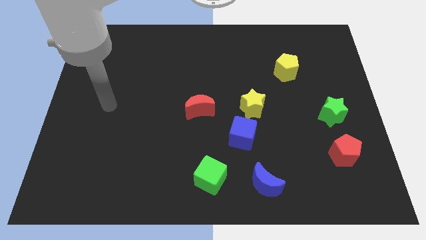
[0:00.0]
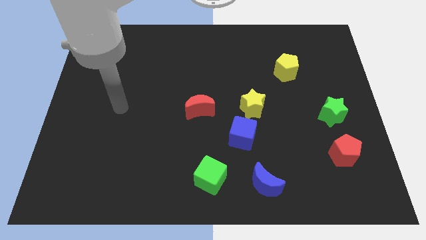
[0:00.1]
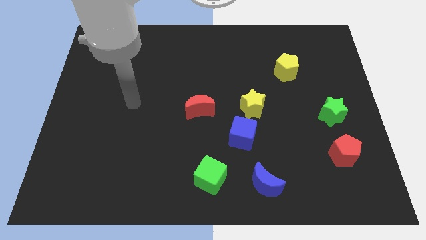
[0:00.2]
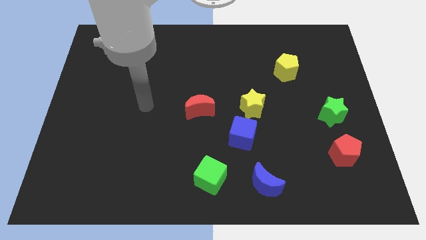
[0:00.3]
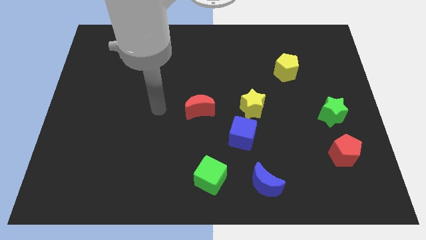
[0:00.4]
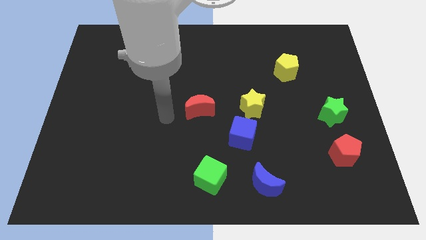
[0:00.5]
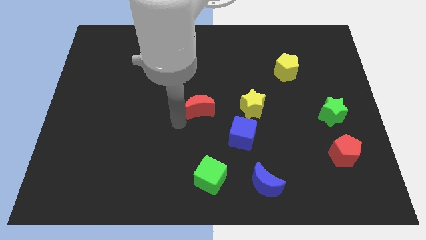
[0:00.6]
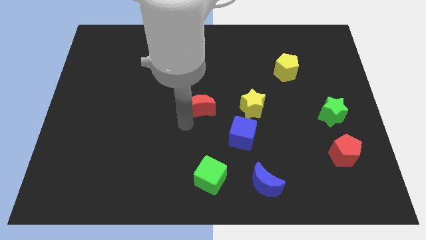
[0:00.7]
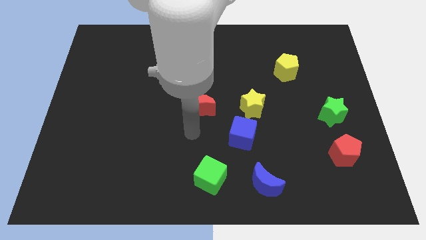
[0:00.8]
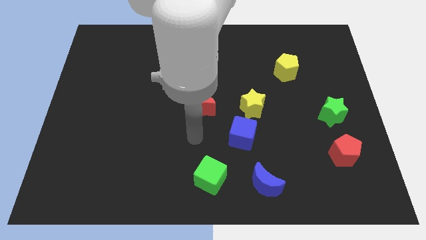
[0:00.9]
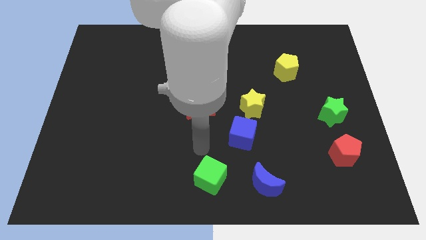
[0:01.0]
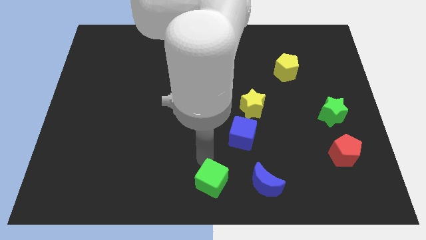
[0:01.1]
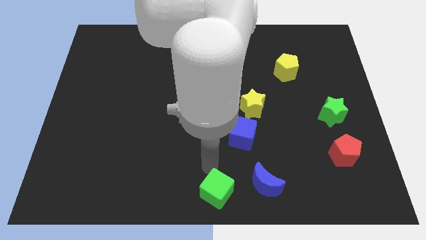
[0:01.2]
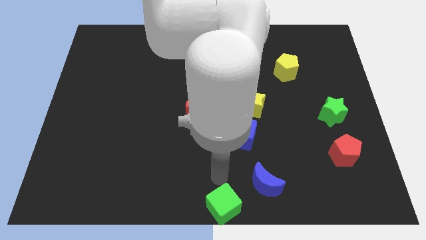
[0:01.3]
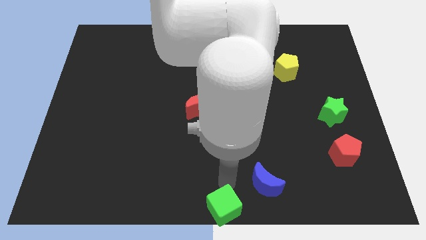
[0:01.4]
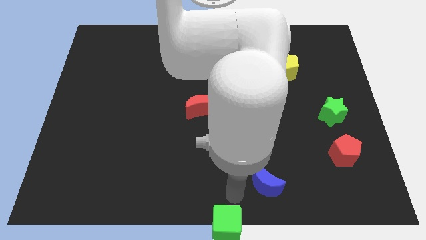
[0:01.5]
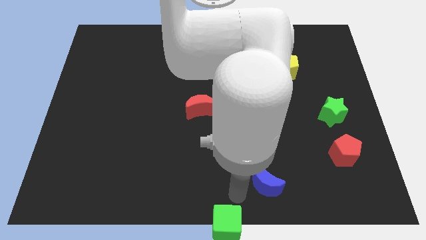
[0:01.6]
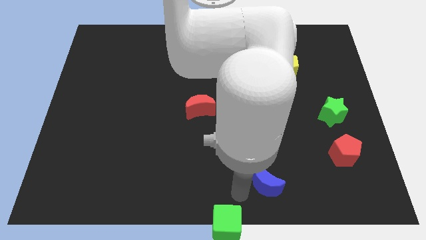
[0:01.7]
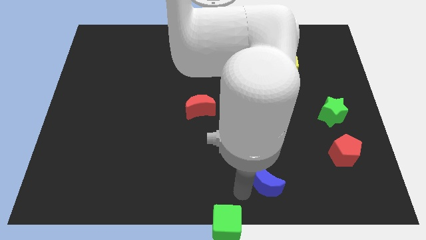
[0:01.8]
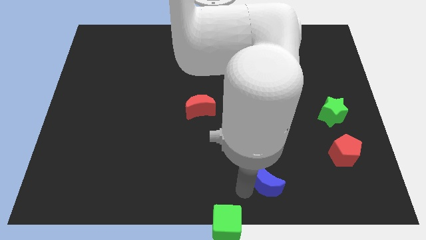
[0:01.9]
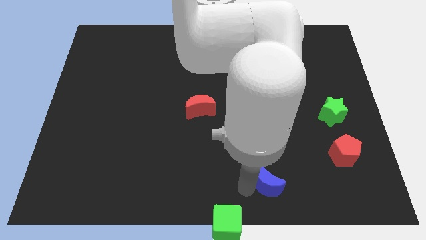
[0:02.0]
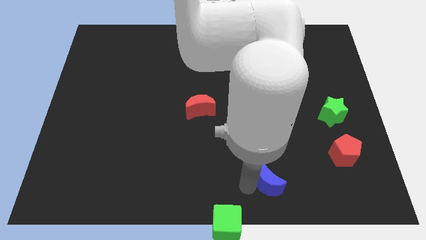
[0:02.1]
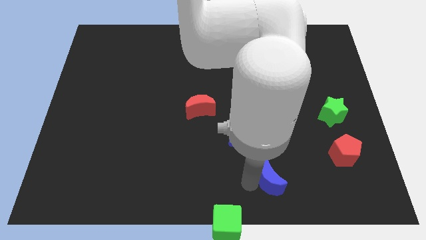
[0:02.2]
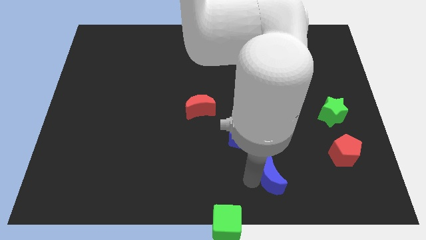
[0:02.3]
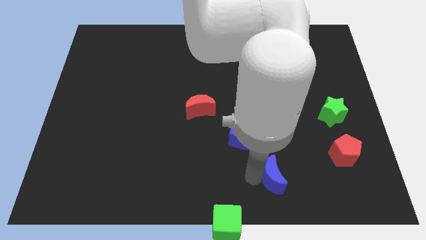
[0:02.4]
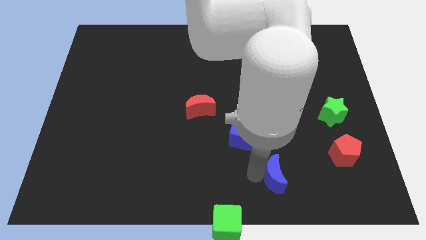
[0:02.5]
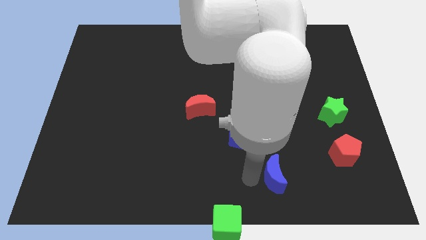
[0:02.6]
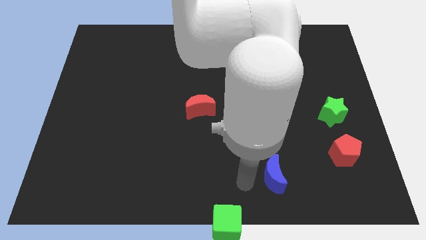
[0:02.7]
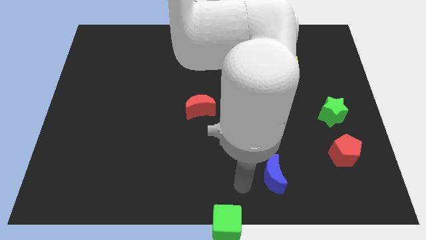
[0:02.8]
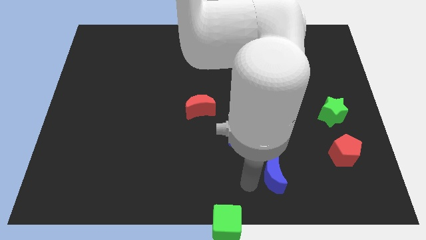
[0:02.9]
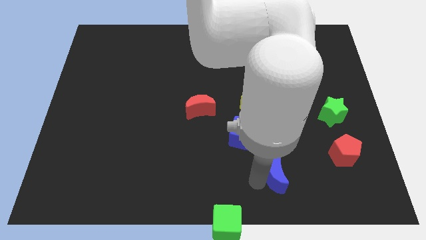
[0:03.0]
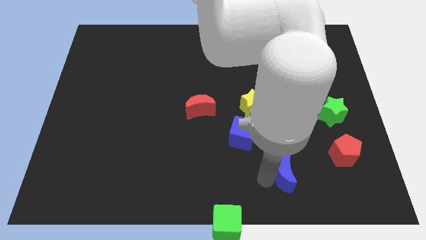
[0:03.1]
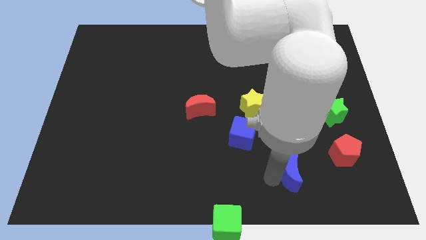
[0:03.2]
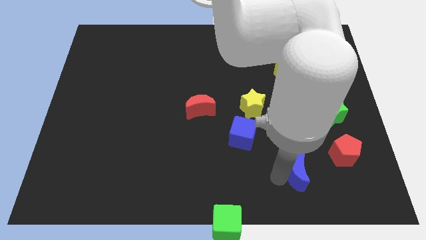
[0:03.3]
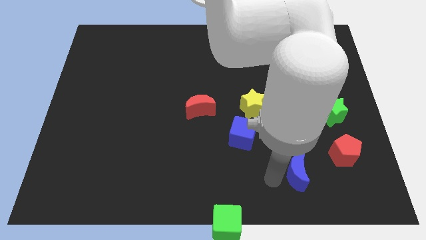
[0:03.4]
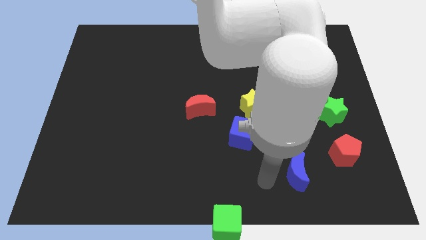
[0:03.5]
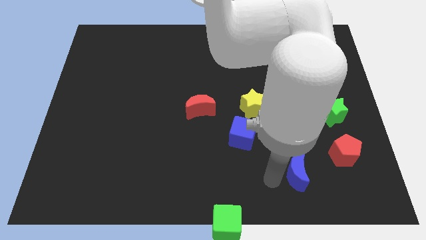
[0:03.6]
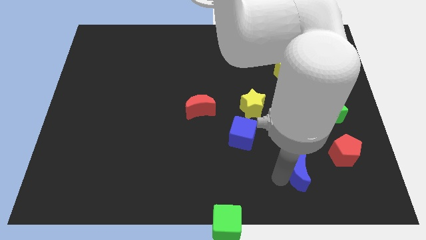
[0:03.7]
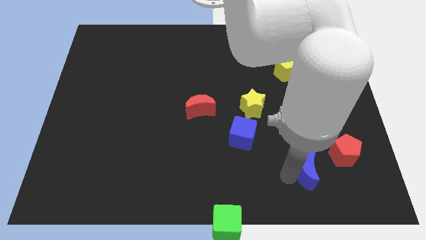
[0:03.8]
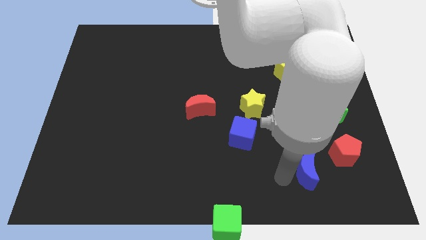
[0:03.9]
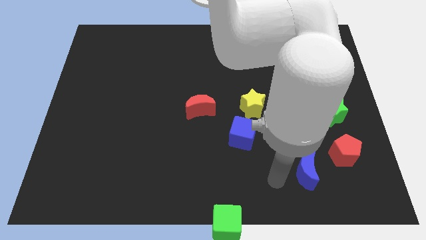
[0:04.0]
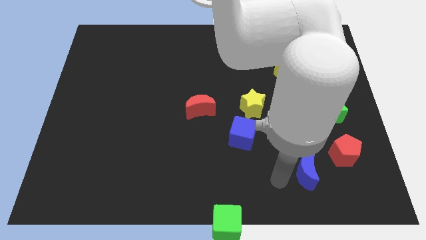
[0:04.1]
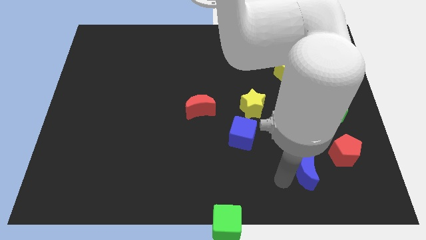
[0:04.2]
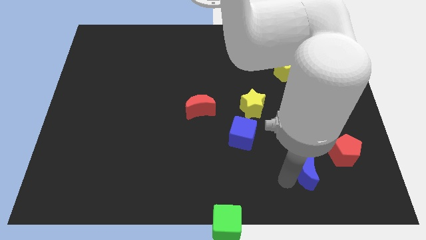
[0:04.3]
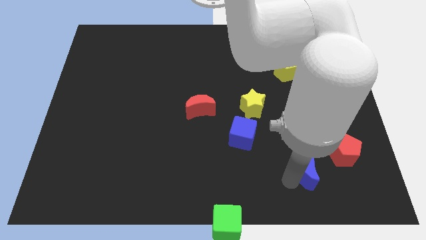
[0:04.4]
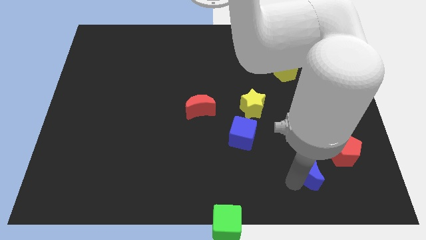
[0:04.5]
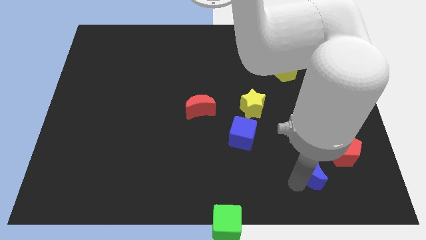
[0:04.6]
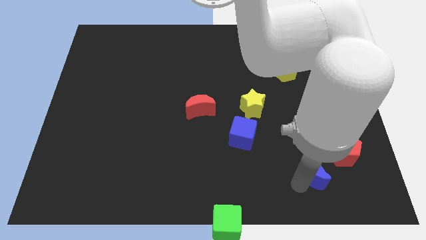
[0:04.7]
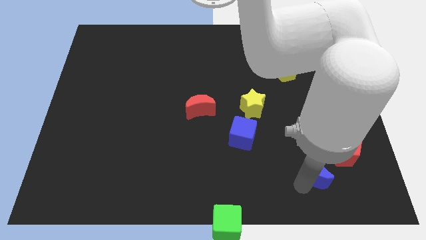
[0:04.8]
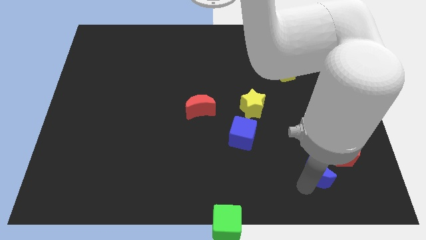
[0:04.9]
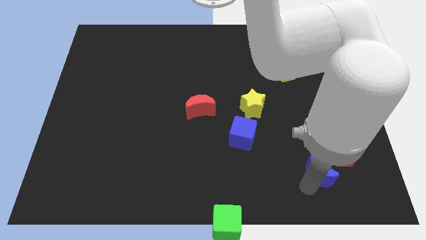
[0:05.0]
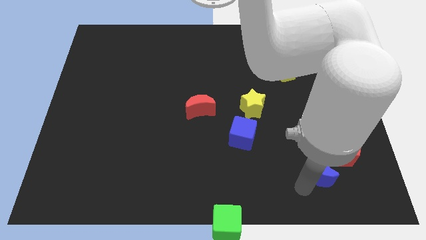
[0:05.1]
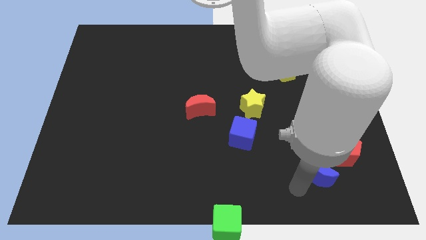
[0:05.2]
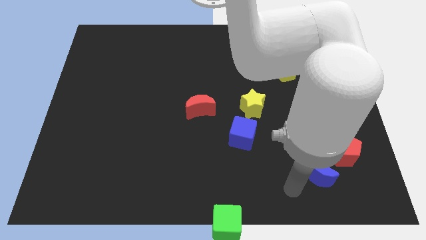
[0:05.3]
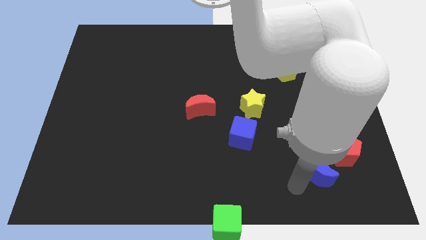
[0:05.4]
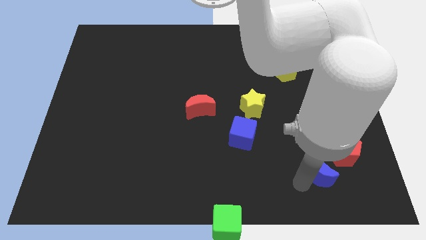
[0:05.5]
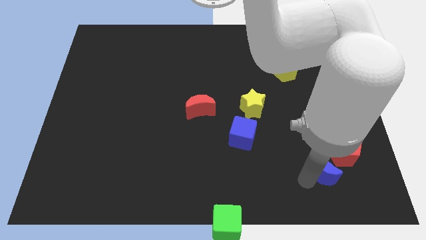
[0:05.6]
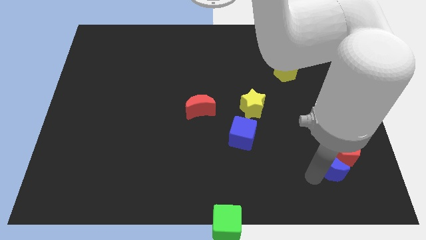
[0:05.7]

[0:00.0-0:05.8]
put the blue moon next to the red pentagon

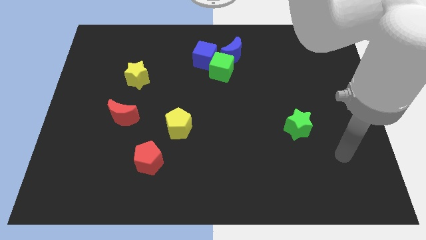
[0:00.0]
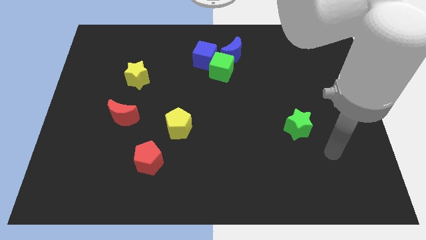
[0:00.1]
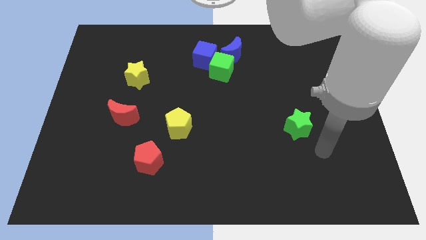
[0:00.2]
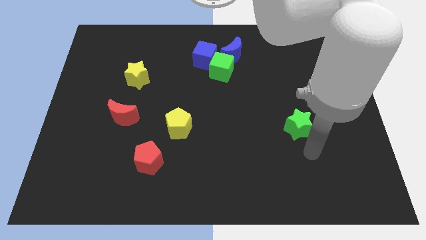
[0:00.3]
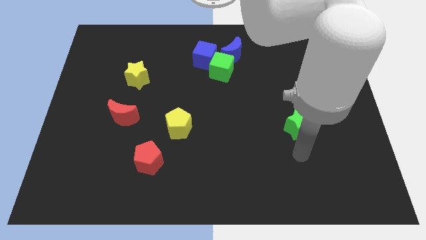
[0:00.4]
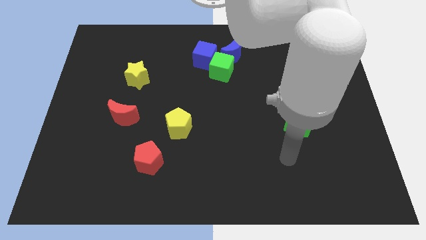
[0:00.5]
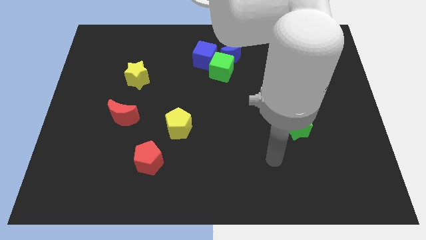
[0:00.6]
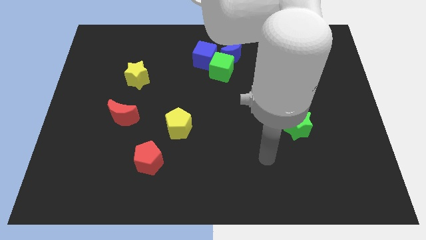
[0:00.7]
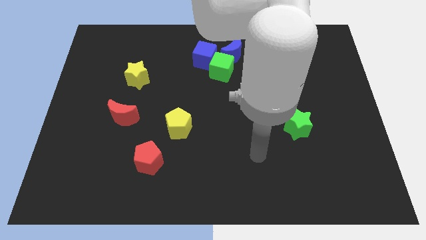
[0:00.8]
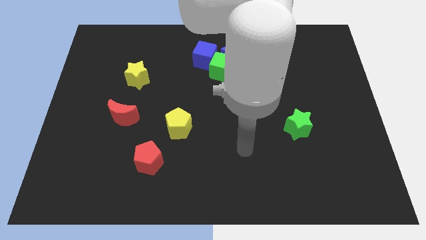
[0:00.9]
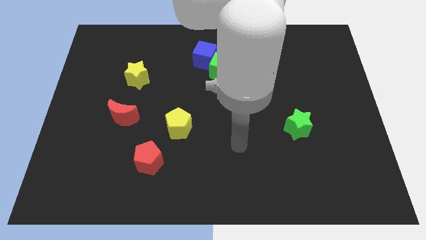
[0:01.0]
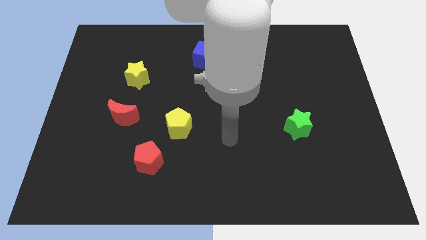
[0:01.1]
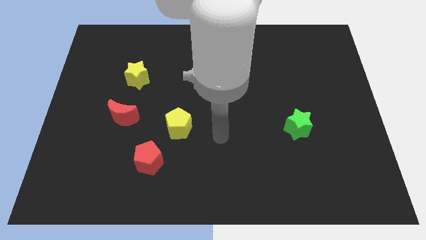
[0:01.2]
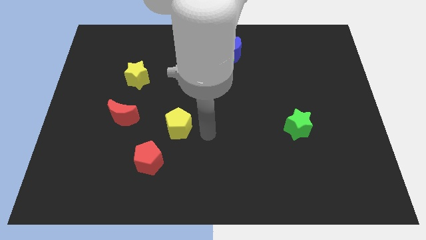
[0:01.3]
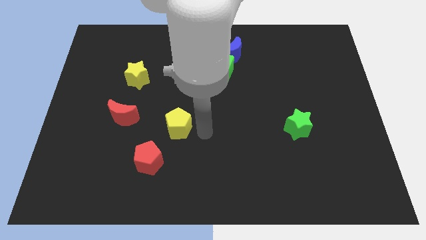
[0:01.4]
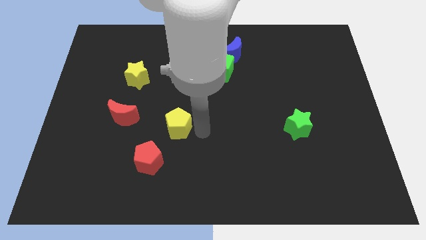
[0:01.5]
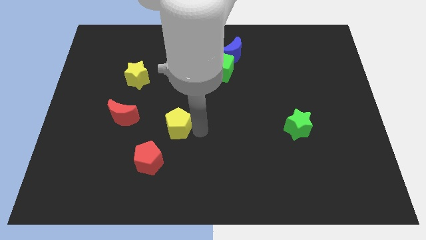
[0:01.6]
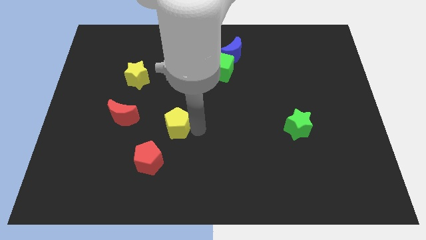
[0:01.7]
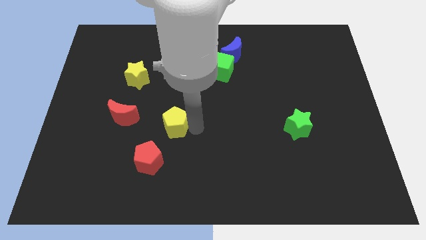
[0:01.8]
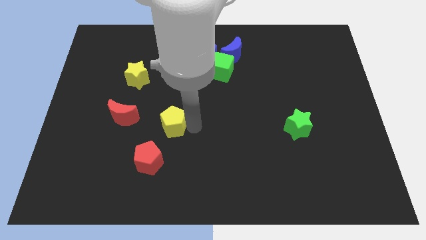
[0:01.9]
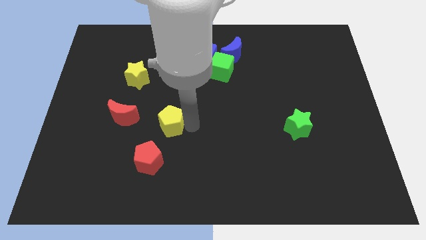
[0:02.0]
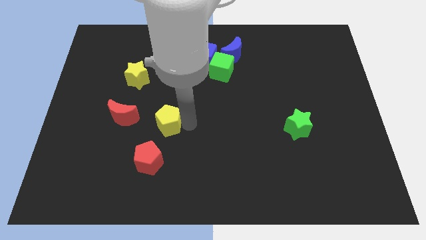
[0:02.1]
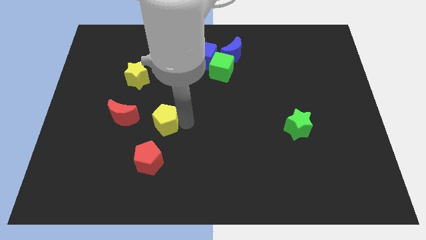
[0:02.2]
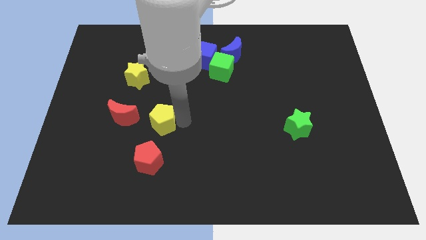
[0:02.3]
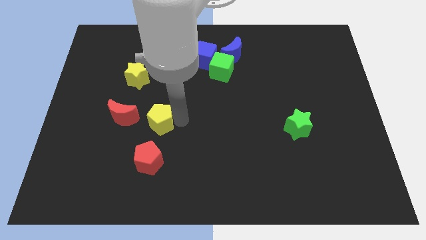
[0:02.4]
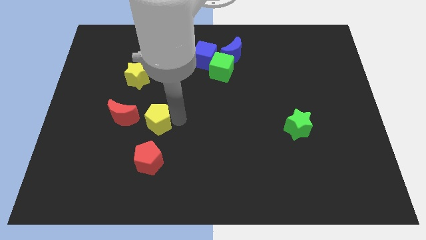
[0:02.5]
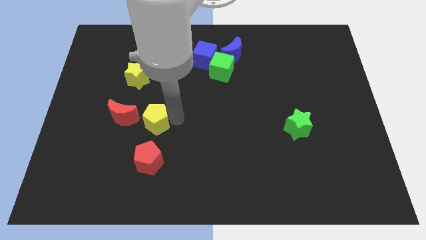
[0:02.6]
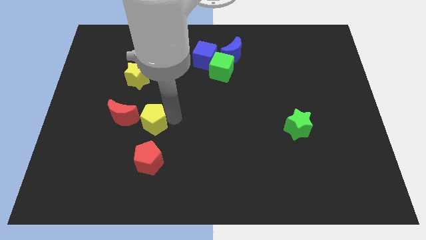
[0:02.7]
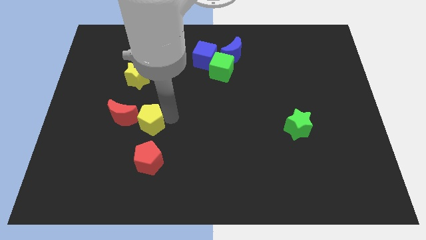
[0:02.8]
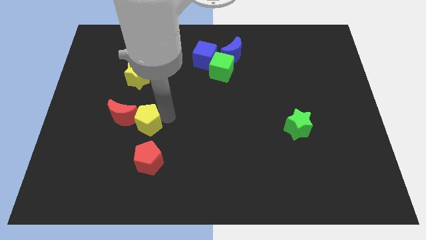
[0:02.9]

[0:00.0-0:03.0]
put the yellow pentagon to the red moon
